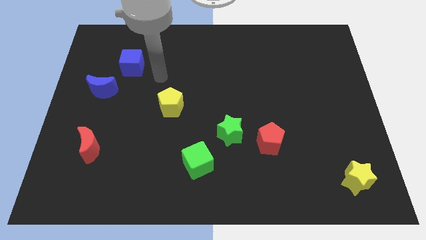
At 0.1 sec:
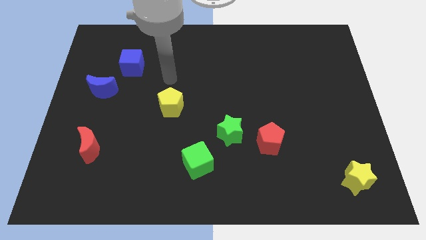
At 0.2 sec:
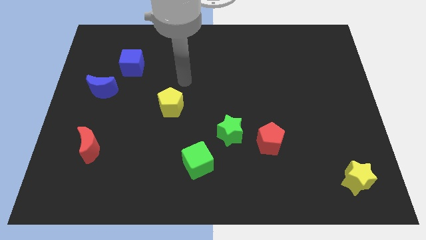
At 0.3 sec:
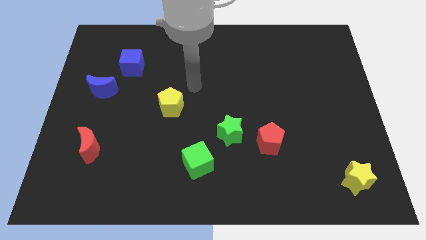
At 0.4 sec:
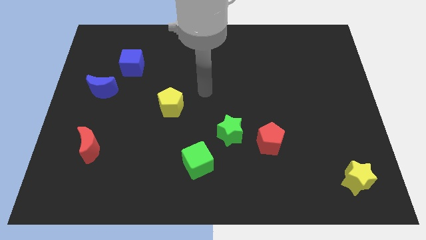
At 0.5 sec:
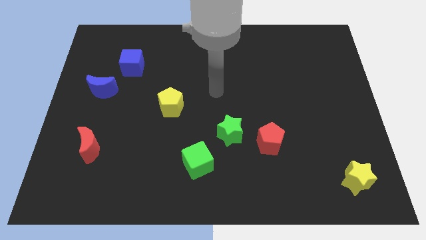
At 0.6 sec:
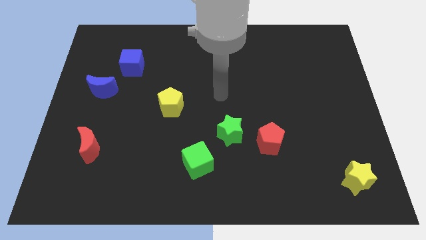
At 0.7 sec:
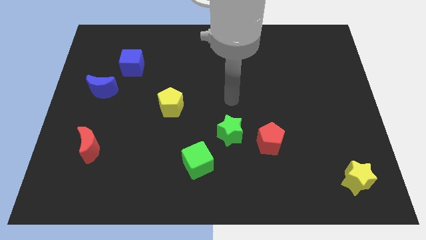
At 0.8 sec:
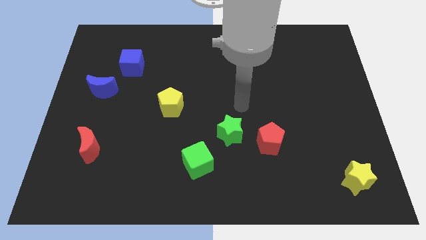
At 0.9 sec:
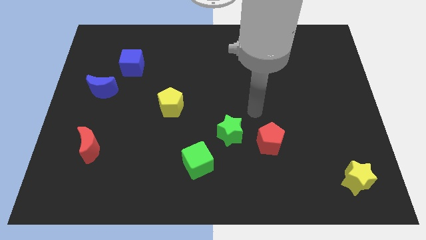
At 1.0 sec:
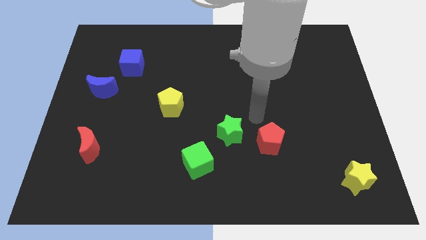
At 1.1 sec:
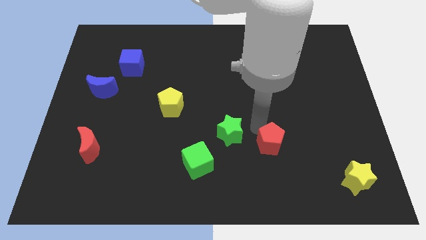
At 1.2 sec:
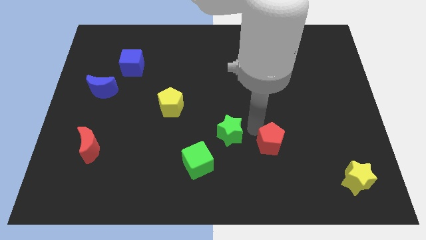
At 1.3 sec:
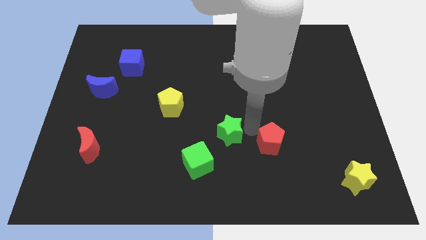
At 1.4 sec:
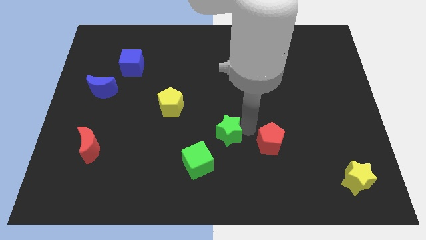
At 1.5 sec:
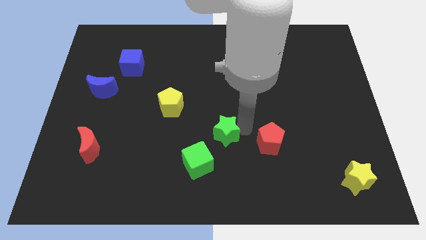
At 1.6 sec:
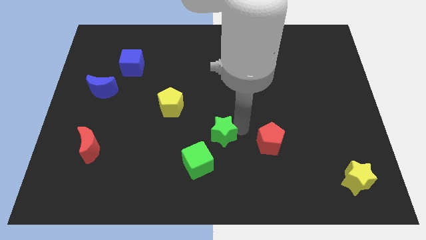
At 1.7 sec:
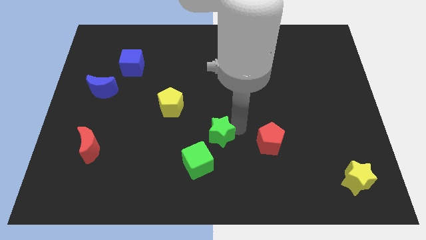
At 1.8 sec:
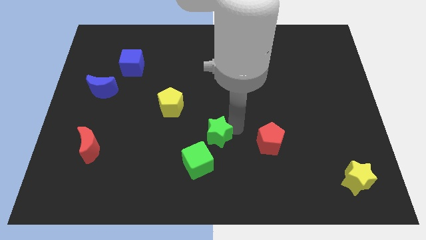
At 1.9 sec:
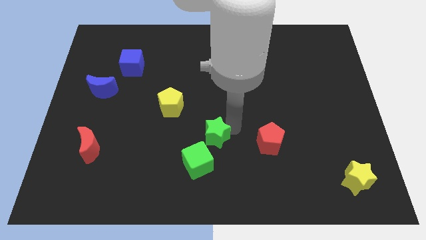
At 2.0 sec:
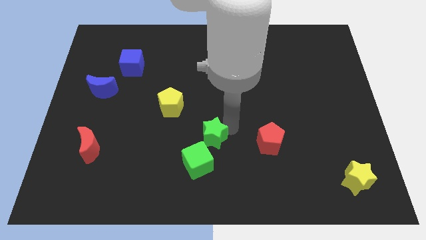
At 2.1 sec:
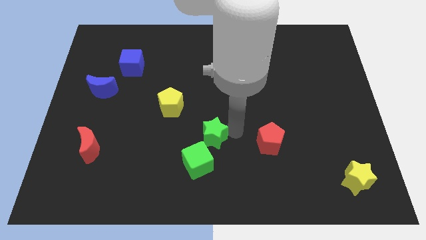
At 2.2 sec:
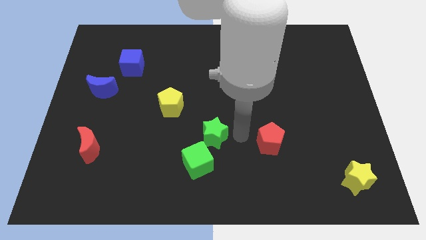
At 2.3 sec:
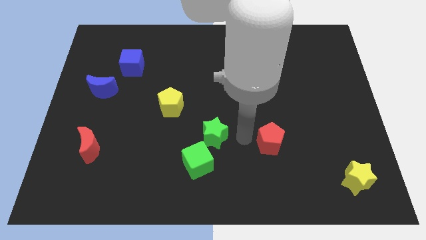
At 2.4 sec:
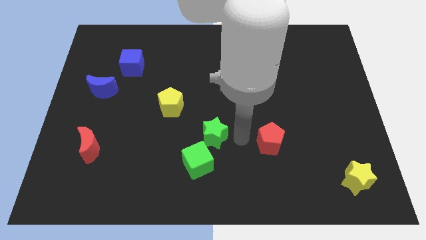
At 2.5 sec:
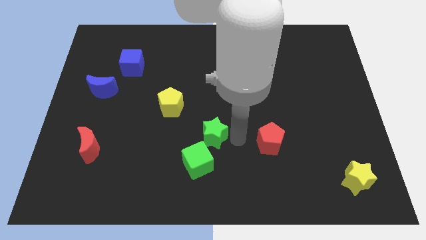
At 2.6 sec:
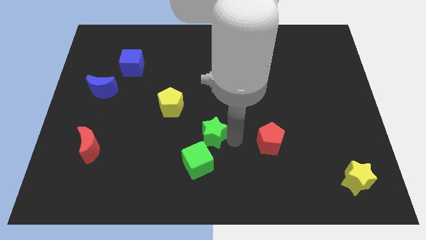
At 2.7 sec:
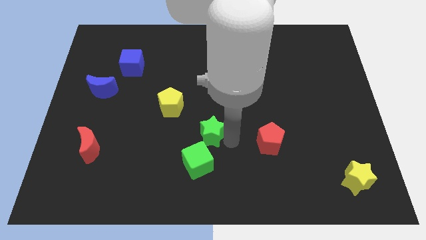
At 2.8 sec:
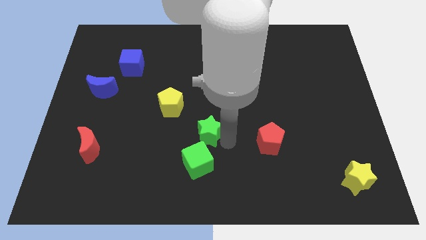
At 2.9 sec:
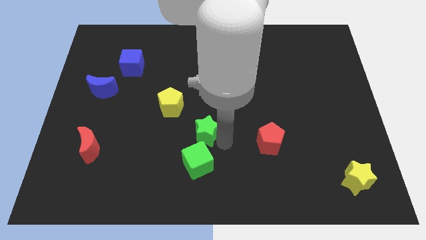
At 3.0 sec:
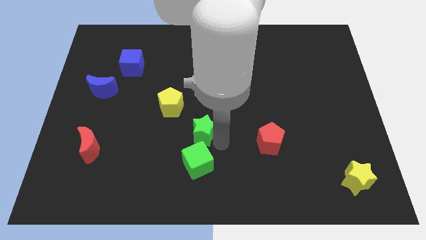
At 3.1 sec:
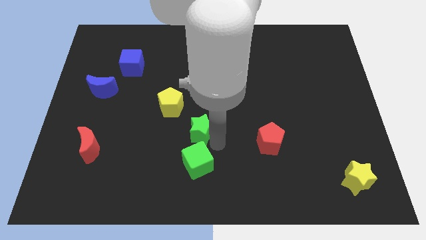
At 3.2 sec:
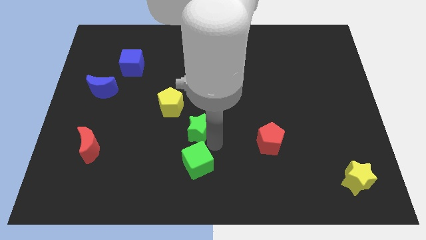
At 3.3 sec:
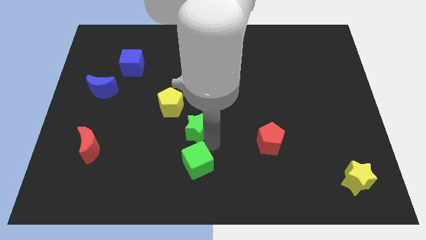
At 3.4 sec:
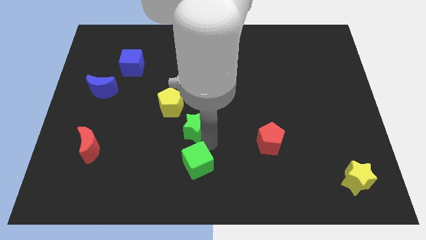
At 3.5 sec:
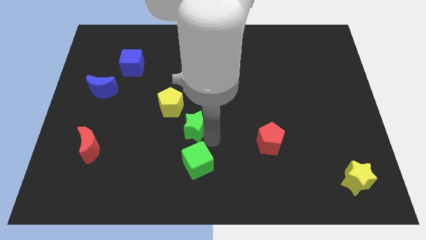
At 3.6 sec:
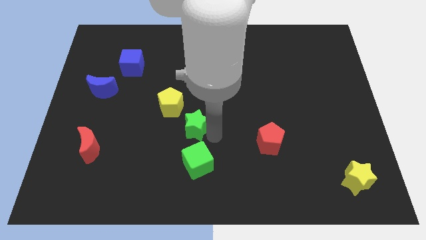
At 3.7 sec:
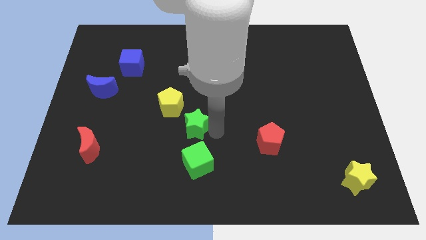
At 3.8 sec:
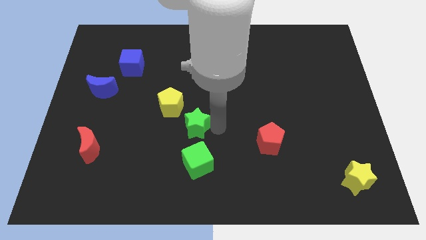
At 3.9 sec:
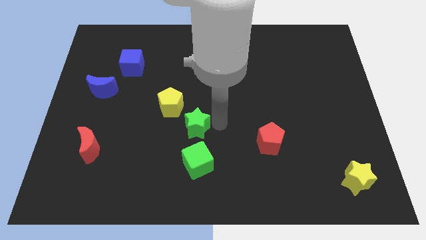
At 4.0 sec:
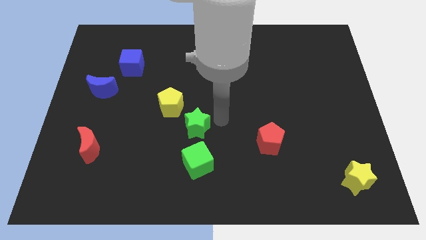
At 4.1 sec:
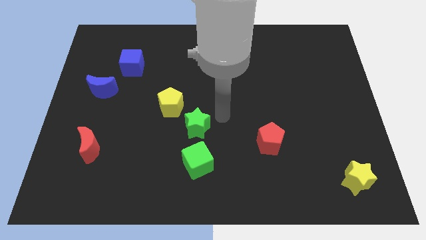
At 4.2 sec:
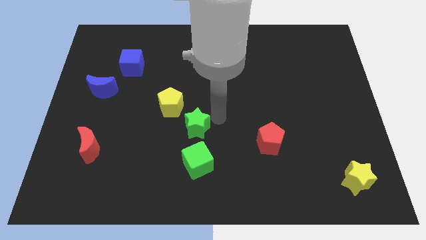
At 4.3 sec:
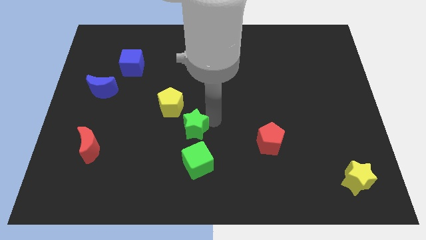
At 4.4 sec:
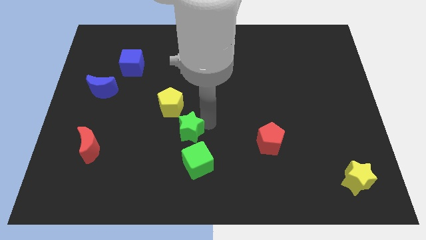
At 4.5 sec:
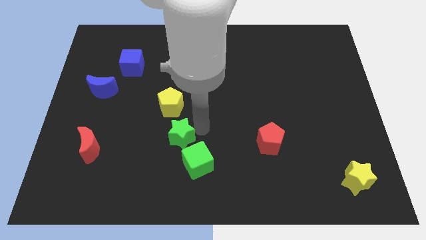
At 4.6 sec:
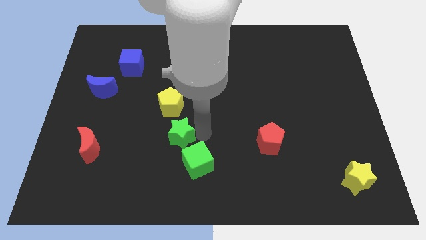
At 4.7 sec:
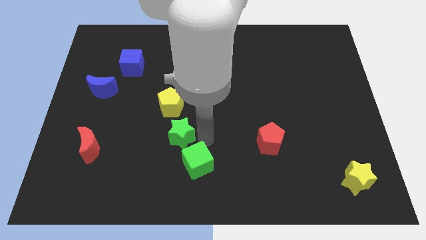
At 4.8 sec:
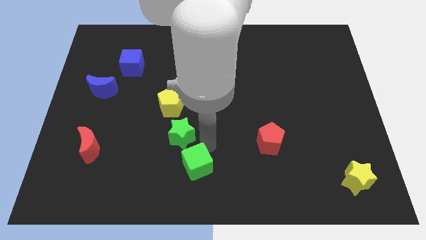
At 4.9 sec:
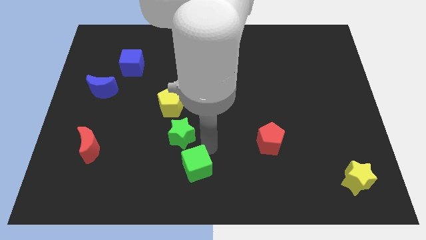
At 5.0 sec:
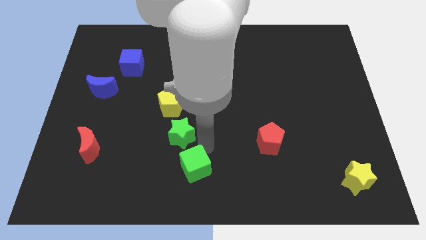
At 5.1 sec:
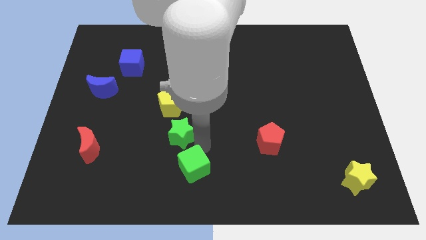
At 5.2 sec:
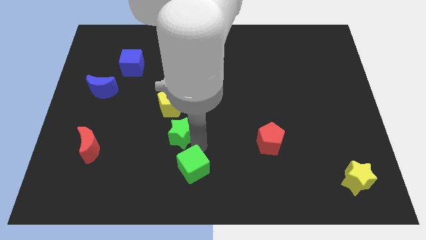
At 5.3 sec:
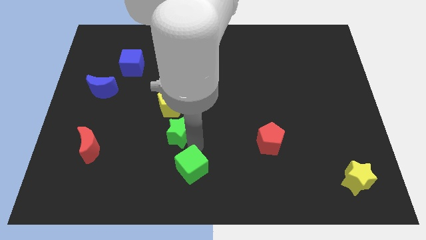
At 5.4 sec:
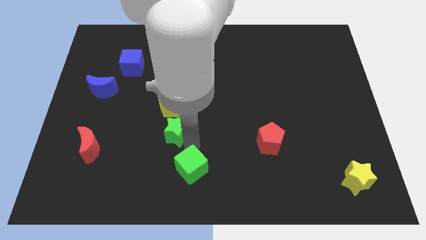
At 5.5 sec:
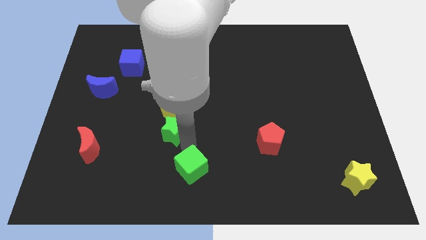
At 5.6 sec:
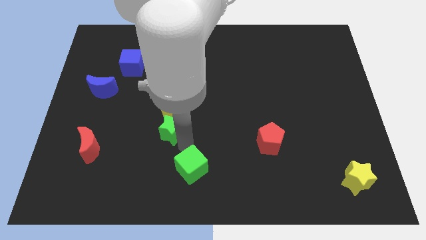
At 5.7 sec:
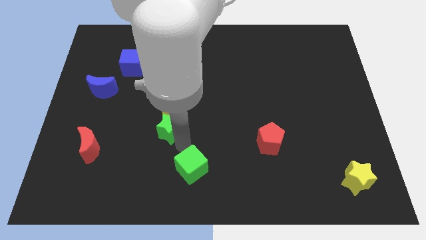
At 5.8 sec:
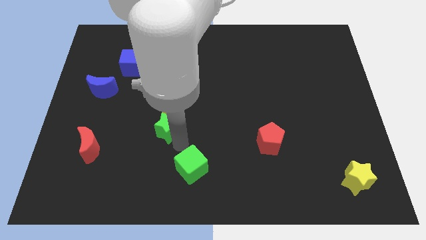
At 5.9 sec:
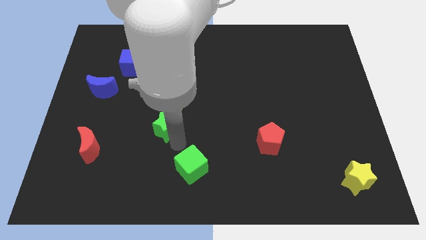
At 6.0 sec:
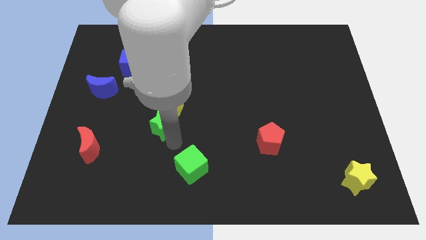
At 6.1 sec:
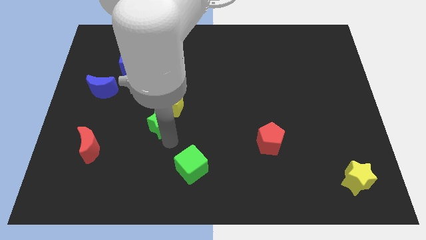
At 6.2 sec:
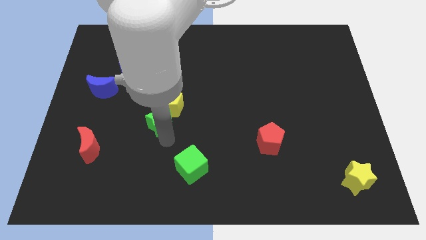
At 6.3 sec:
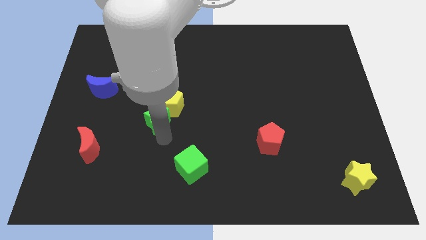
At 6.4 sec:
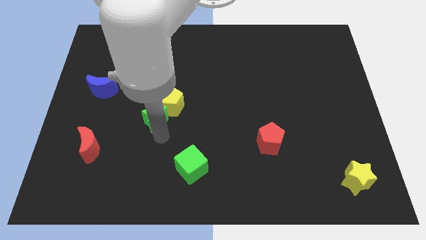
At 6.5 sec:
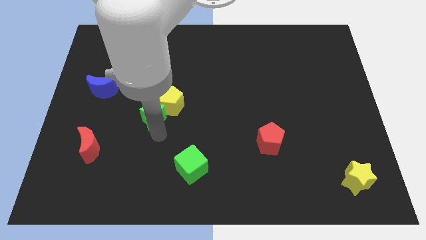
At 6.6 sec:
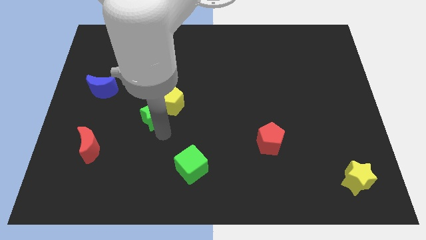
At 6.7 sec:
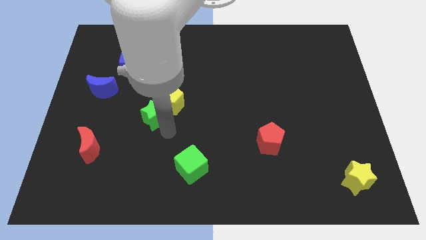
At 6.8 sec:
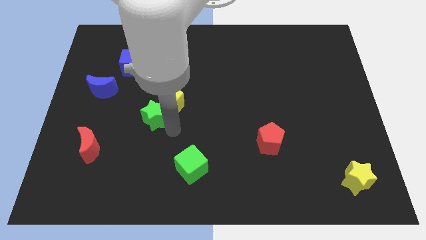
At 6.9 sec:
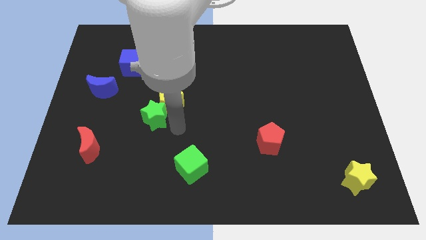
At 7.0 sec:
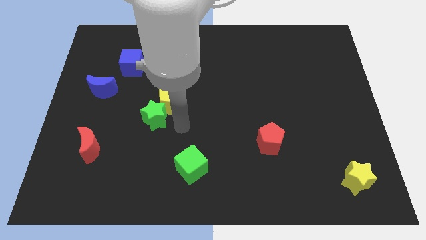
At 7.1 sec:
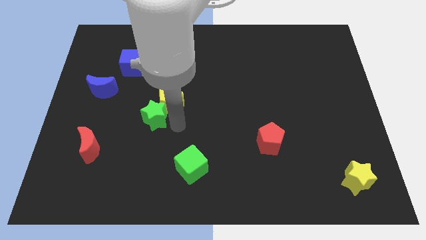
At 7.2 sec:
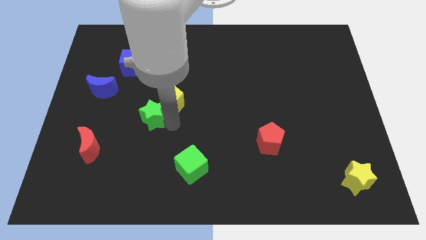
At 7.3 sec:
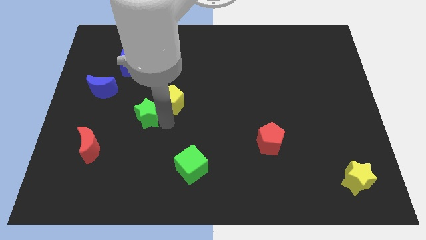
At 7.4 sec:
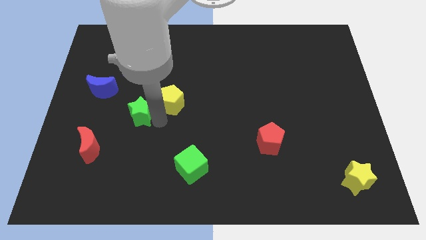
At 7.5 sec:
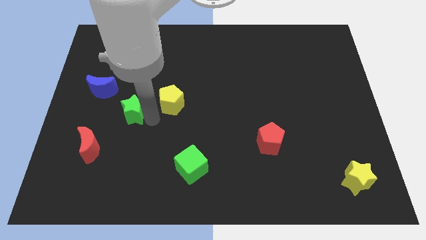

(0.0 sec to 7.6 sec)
put the green star to the bottom right side of the blue moon
